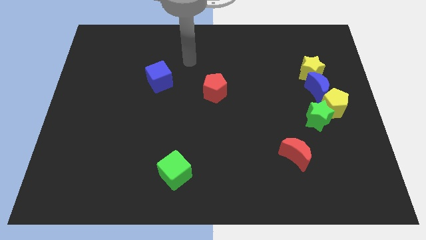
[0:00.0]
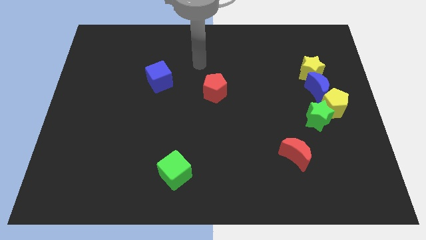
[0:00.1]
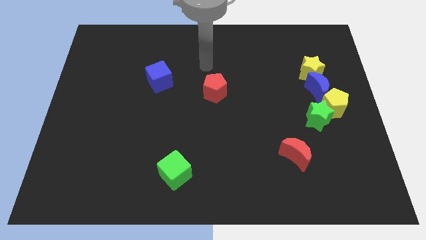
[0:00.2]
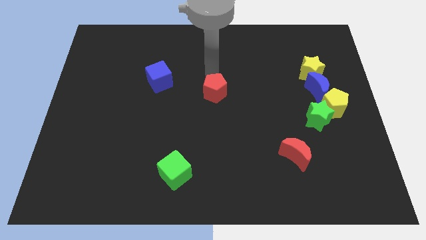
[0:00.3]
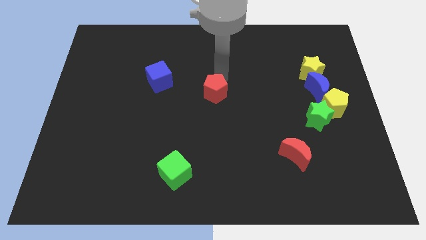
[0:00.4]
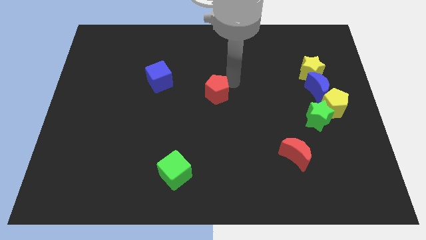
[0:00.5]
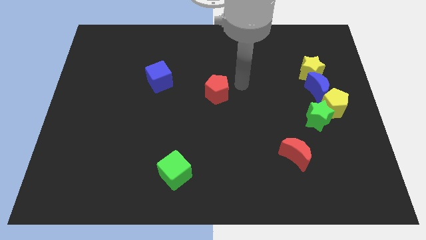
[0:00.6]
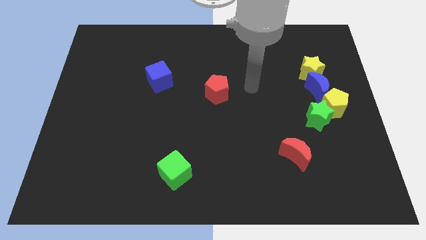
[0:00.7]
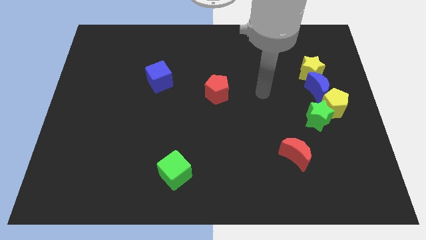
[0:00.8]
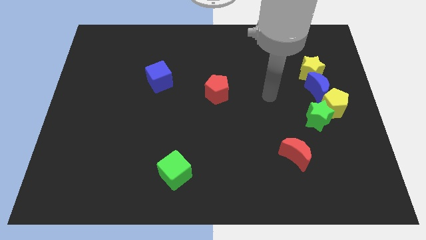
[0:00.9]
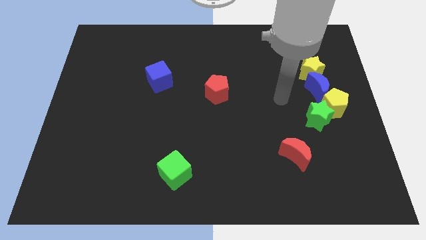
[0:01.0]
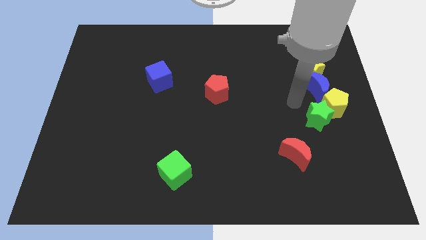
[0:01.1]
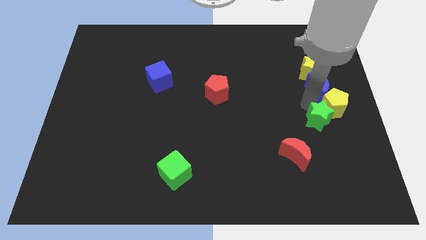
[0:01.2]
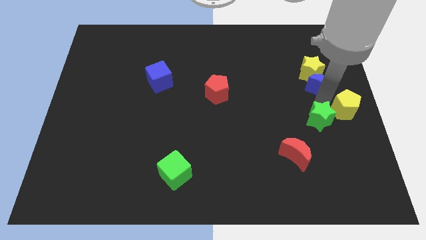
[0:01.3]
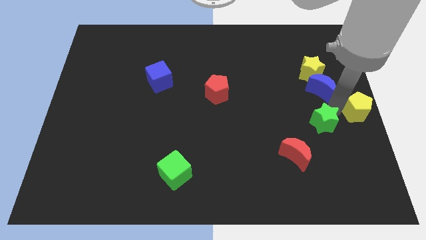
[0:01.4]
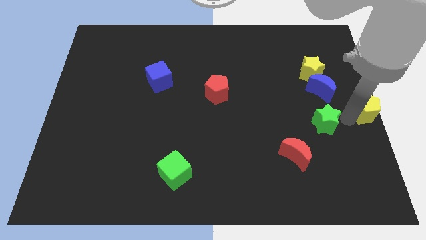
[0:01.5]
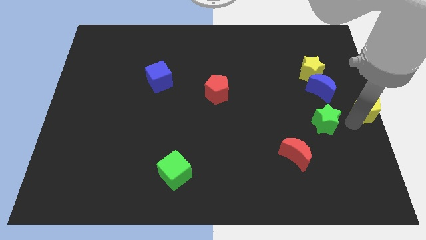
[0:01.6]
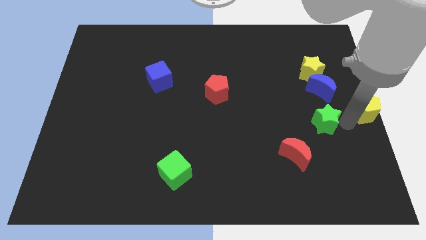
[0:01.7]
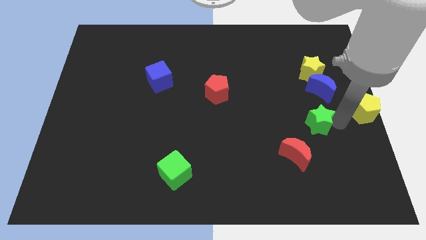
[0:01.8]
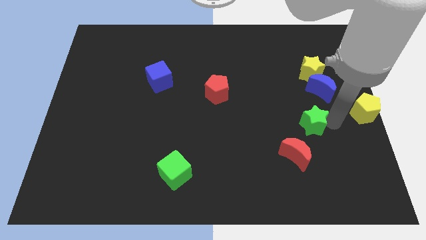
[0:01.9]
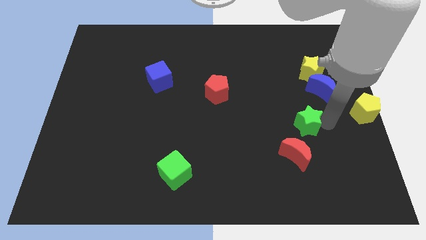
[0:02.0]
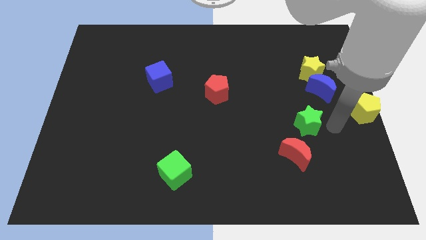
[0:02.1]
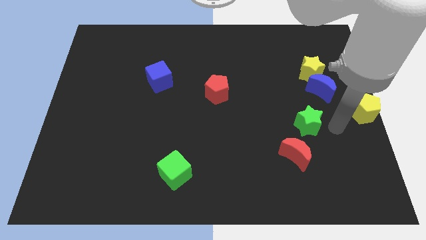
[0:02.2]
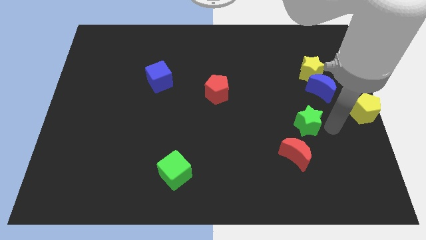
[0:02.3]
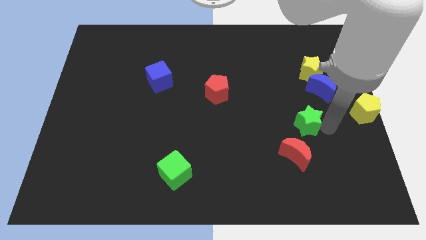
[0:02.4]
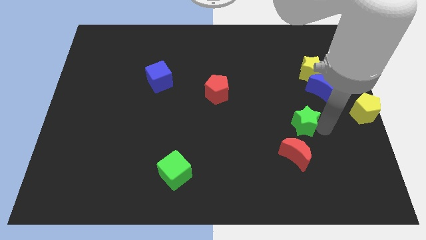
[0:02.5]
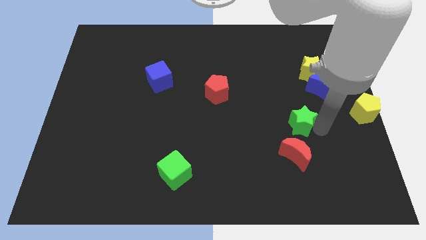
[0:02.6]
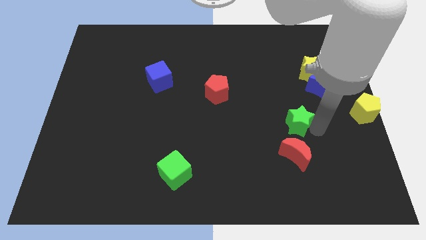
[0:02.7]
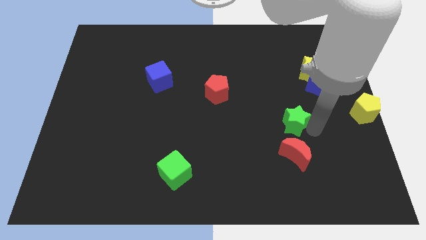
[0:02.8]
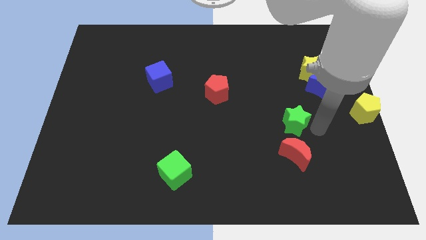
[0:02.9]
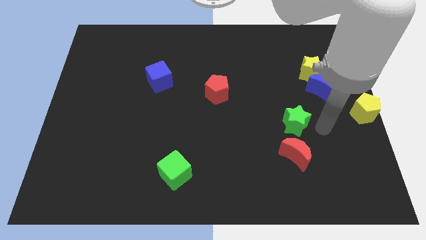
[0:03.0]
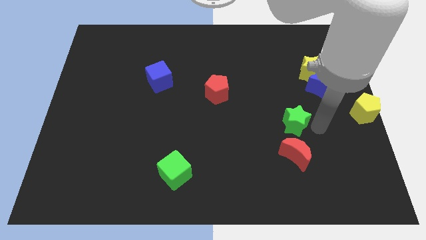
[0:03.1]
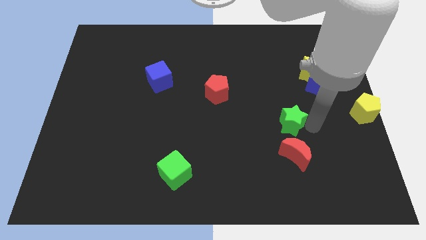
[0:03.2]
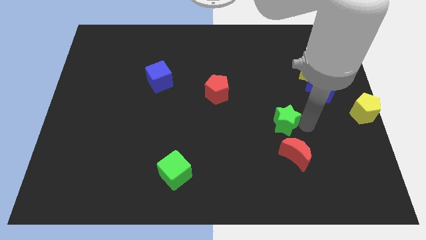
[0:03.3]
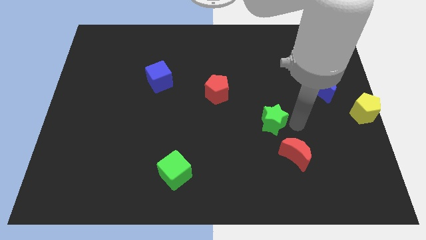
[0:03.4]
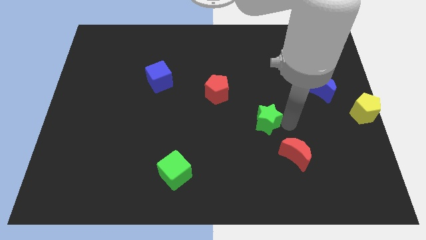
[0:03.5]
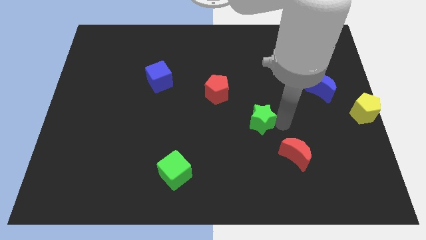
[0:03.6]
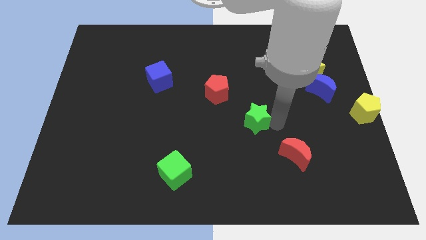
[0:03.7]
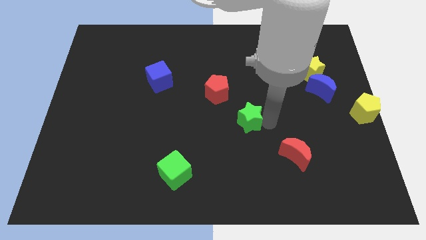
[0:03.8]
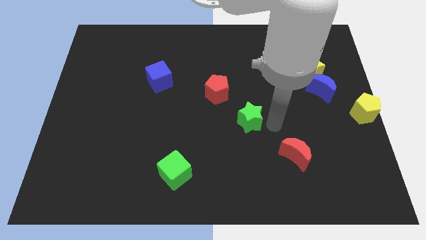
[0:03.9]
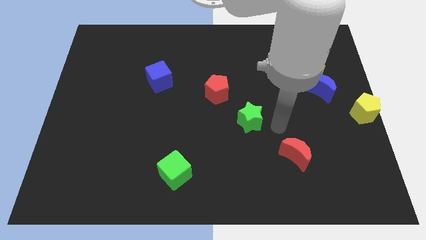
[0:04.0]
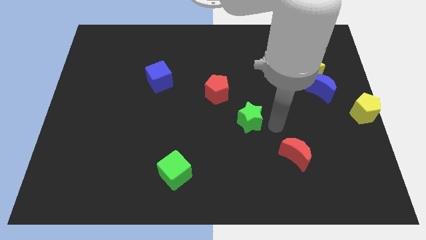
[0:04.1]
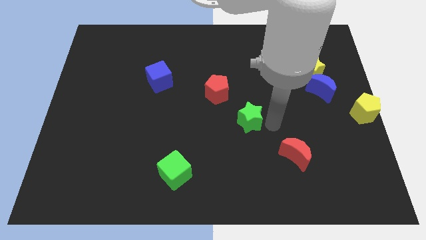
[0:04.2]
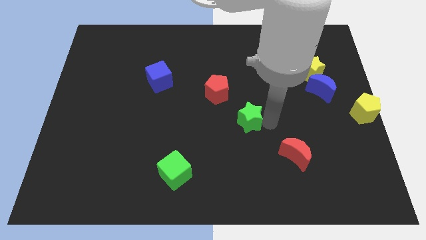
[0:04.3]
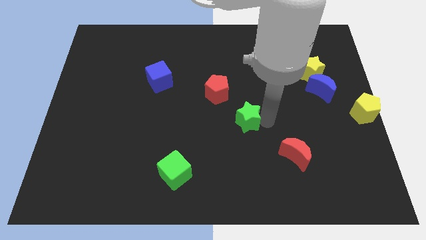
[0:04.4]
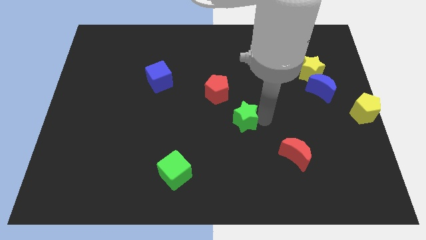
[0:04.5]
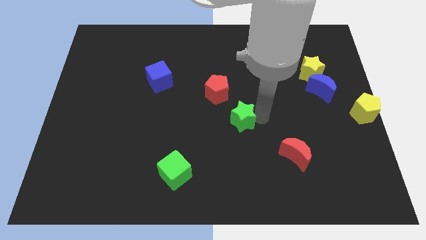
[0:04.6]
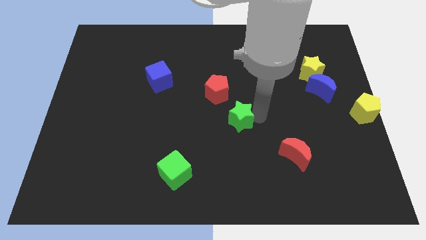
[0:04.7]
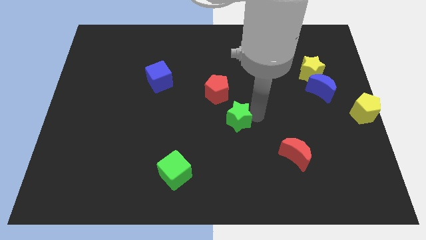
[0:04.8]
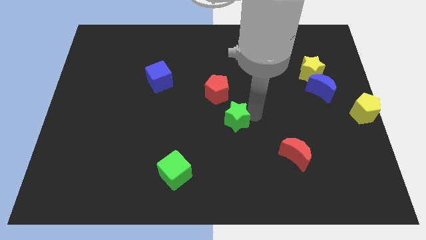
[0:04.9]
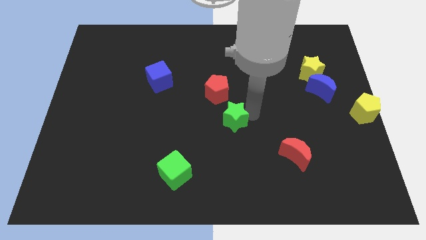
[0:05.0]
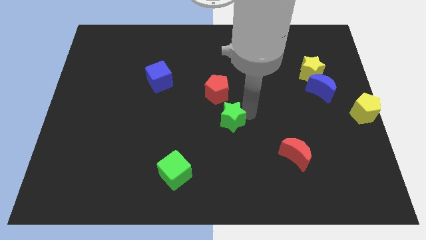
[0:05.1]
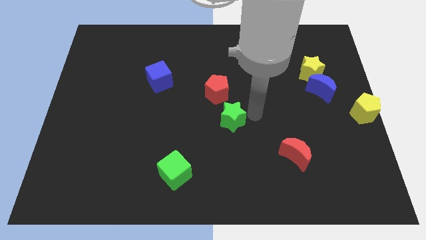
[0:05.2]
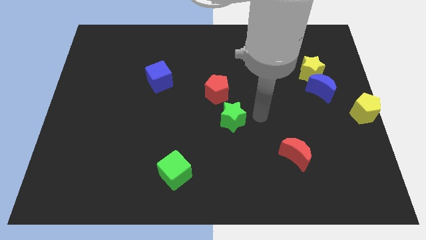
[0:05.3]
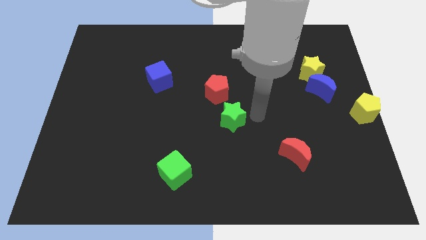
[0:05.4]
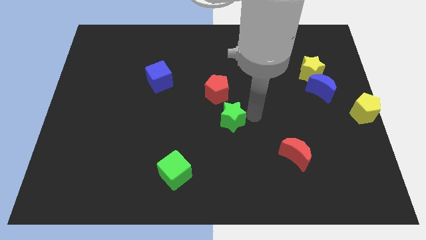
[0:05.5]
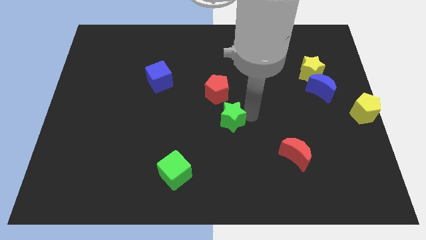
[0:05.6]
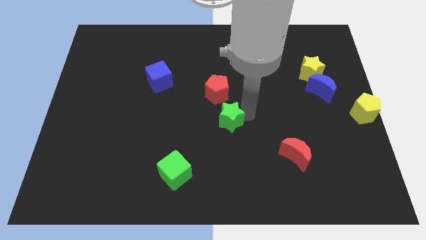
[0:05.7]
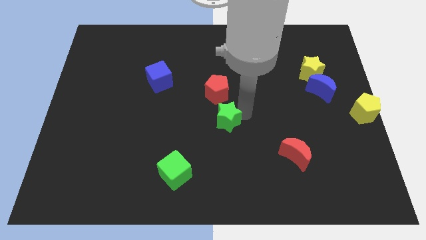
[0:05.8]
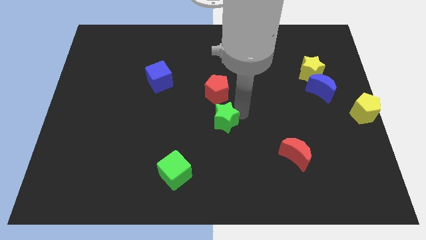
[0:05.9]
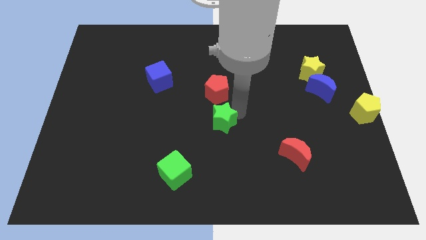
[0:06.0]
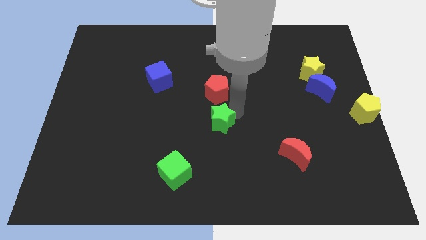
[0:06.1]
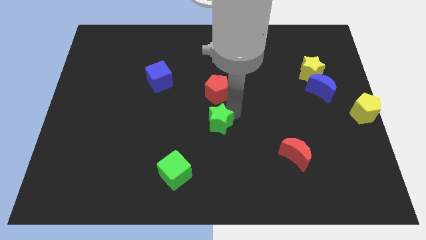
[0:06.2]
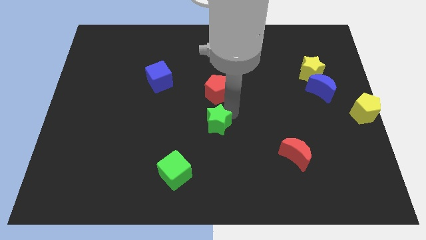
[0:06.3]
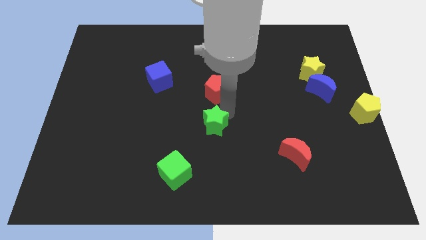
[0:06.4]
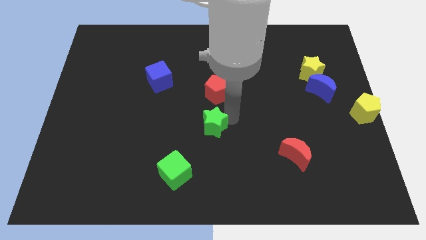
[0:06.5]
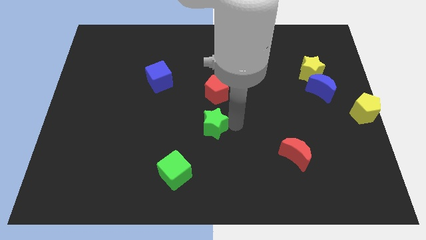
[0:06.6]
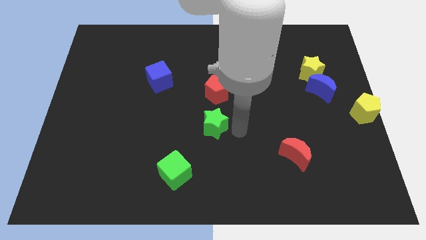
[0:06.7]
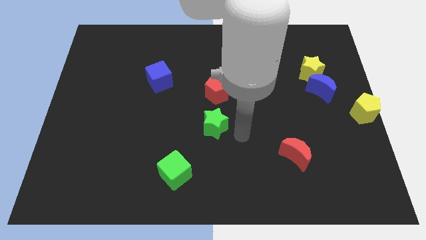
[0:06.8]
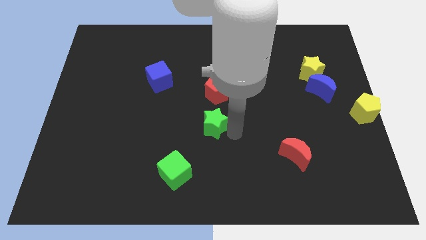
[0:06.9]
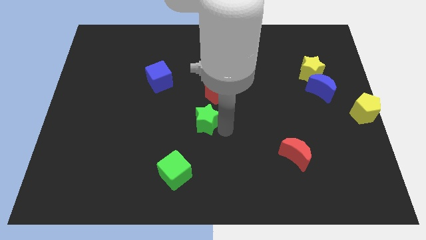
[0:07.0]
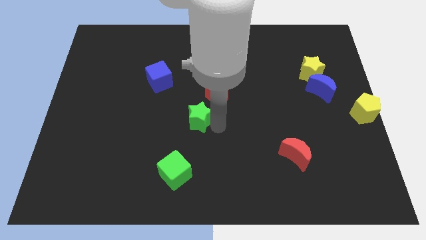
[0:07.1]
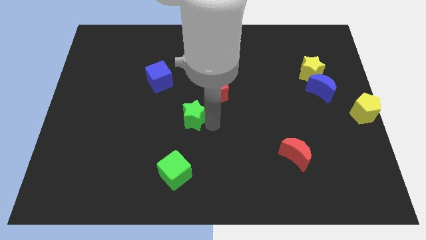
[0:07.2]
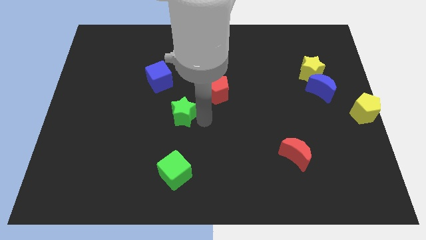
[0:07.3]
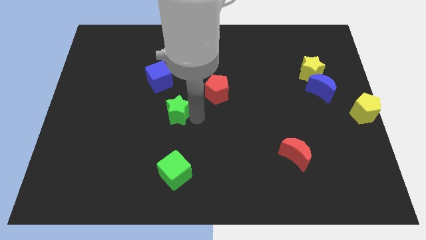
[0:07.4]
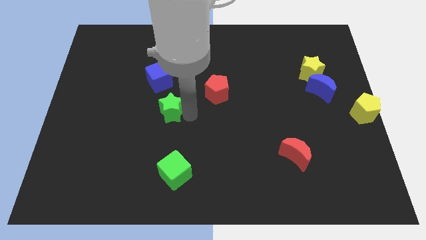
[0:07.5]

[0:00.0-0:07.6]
slide the green star to the bottom side of the blue cube

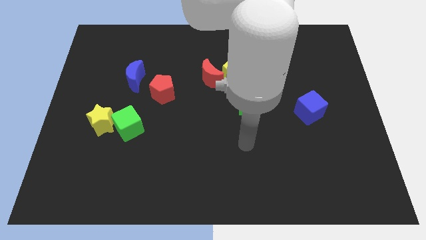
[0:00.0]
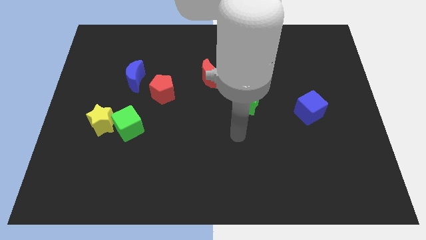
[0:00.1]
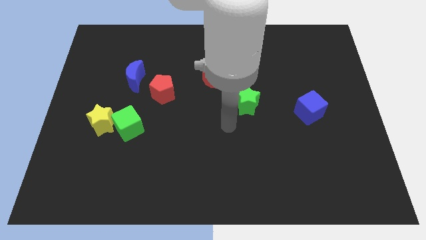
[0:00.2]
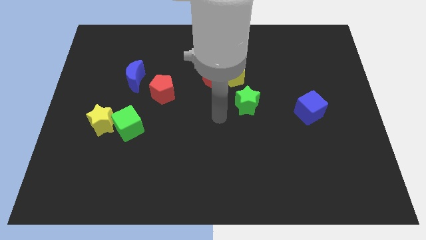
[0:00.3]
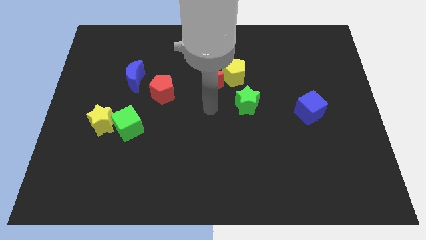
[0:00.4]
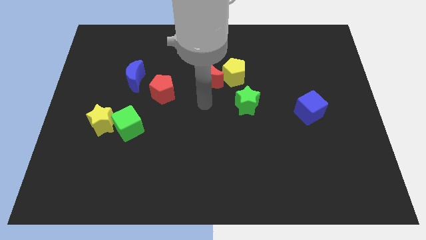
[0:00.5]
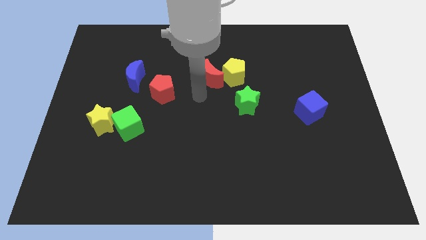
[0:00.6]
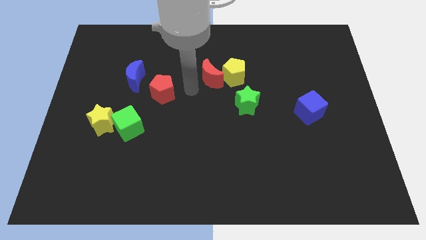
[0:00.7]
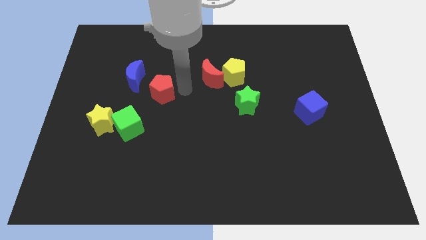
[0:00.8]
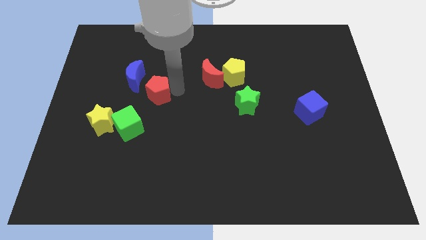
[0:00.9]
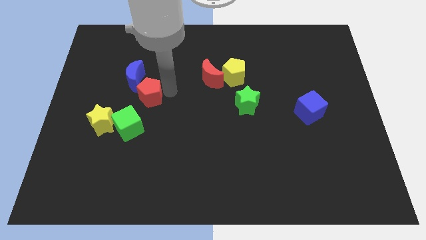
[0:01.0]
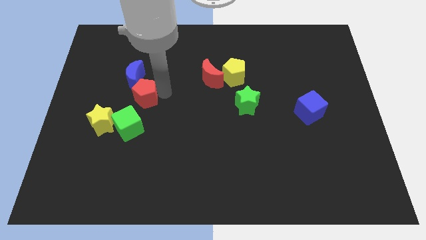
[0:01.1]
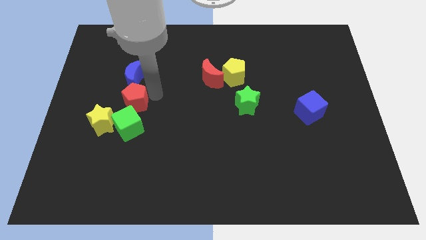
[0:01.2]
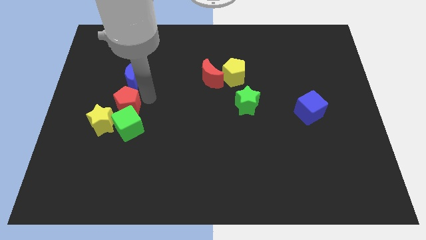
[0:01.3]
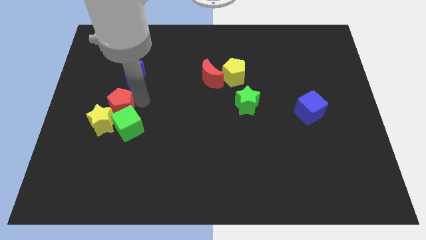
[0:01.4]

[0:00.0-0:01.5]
put the red pentagon diagonally down and to the left of the blue moon
